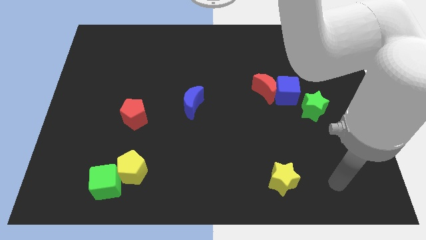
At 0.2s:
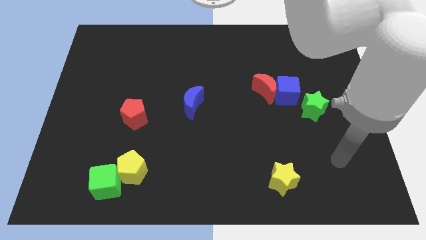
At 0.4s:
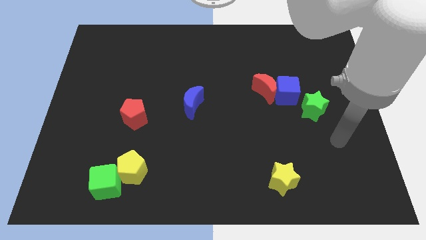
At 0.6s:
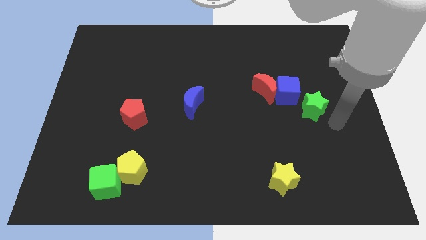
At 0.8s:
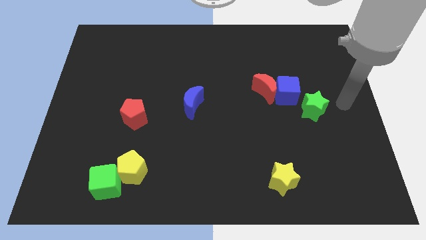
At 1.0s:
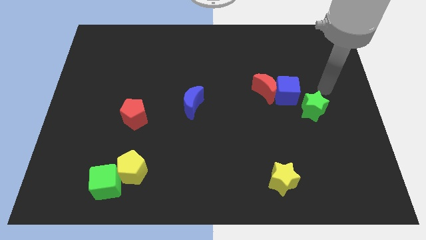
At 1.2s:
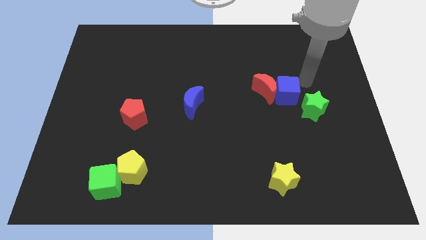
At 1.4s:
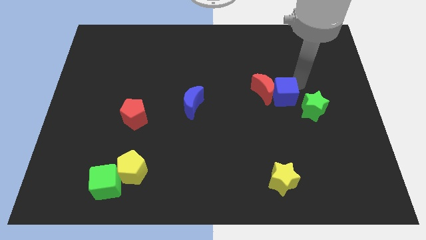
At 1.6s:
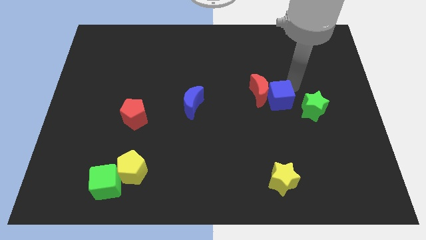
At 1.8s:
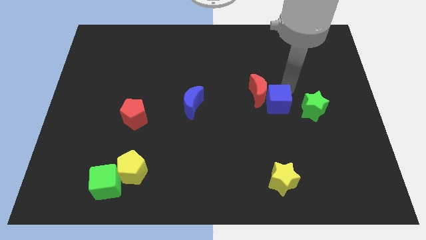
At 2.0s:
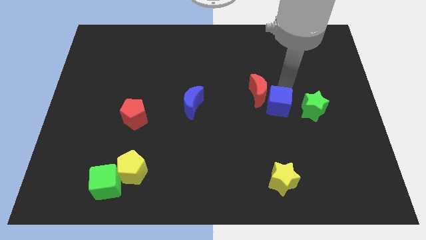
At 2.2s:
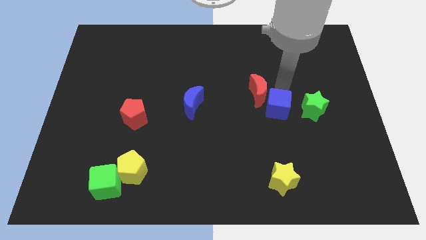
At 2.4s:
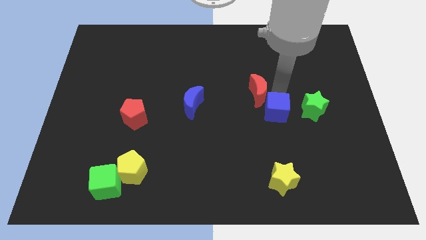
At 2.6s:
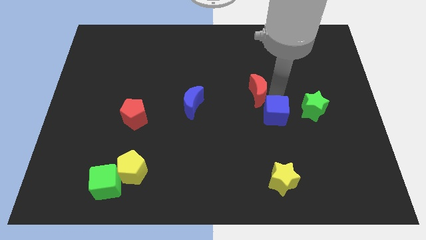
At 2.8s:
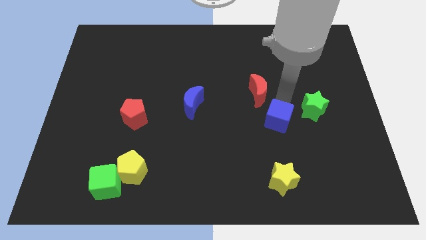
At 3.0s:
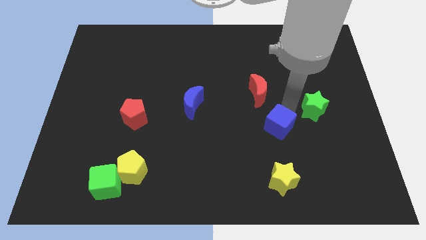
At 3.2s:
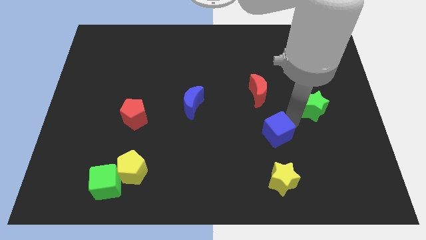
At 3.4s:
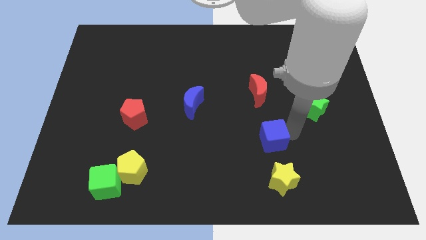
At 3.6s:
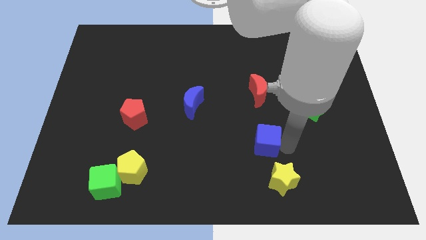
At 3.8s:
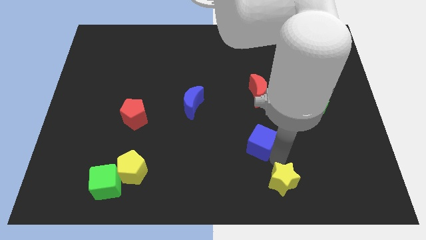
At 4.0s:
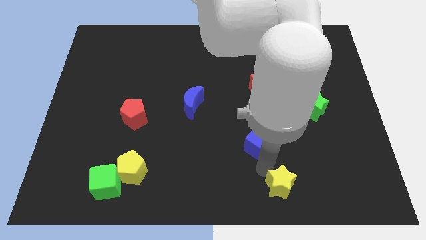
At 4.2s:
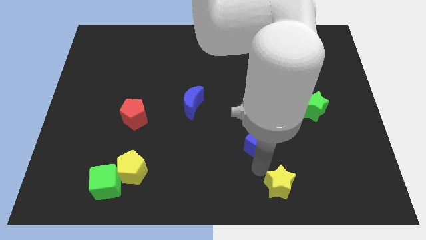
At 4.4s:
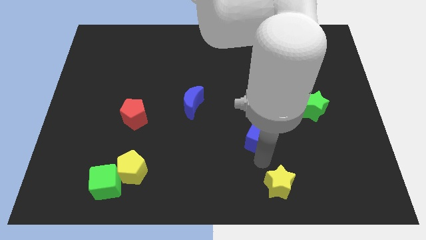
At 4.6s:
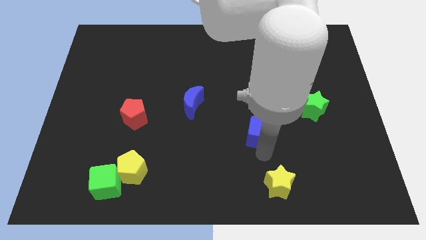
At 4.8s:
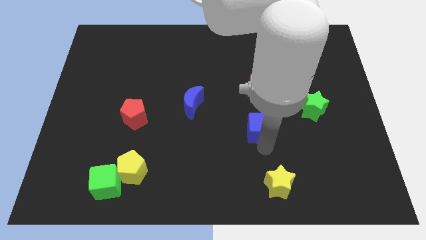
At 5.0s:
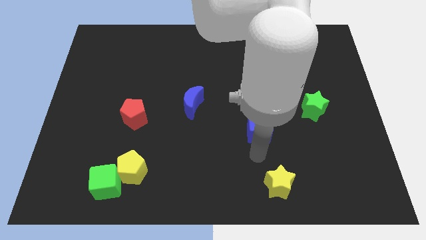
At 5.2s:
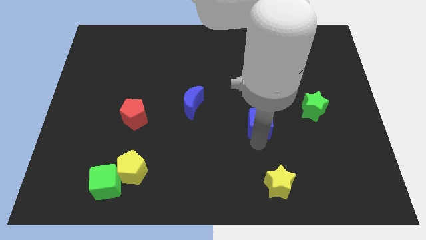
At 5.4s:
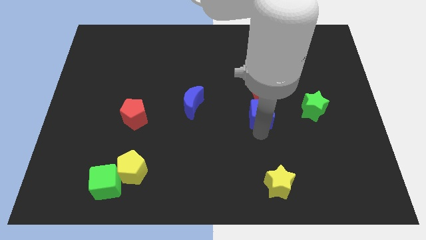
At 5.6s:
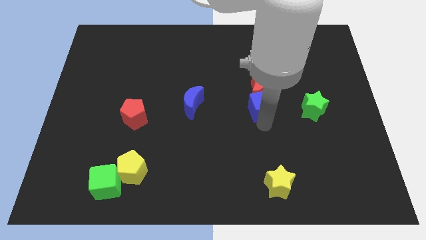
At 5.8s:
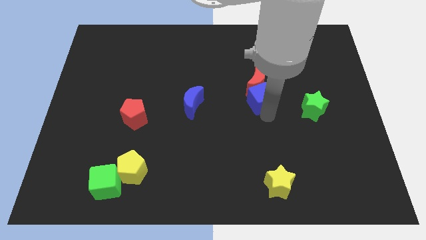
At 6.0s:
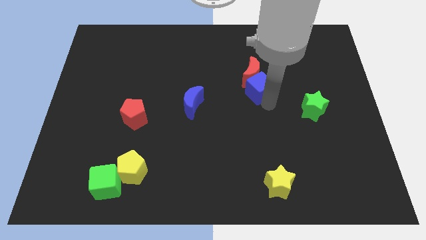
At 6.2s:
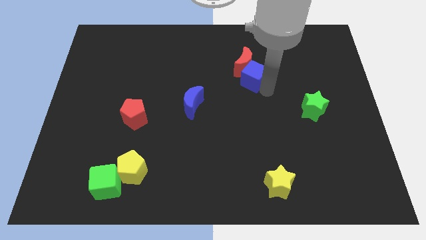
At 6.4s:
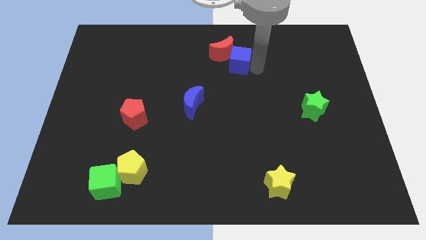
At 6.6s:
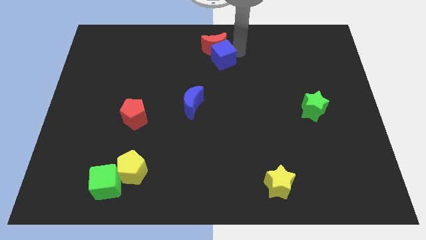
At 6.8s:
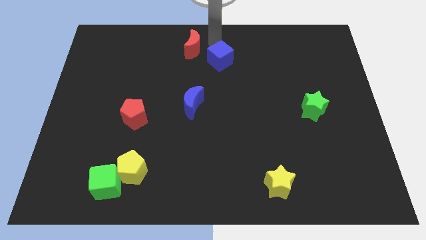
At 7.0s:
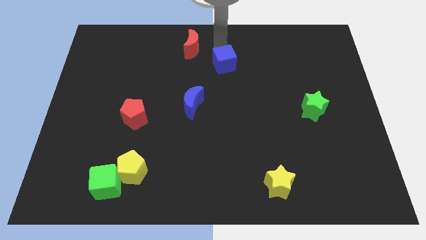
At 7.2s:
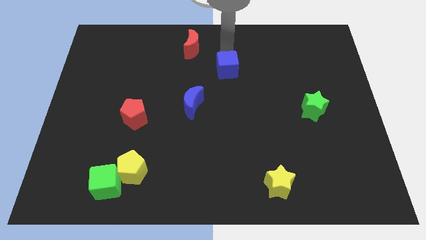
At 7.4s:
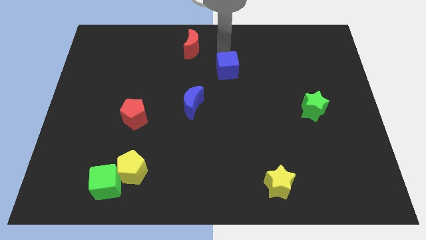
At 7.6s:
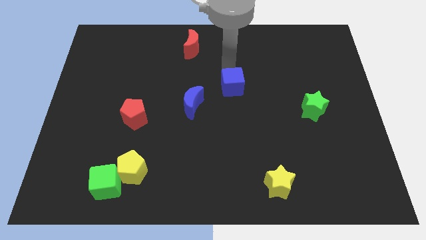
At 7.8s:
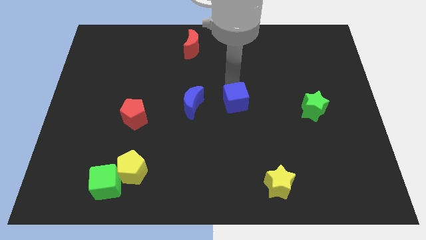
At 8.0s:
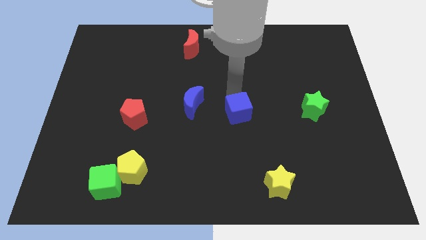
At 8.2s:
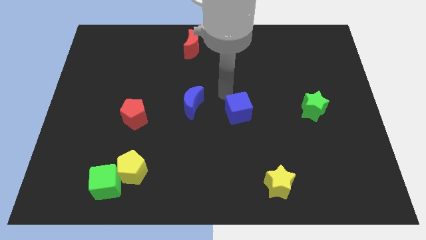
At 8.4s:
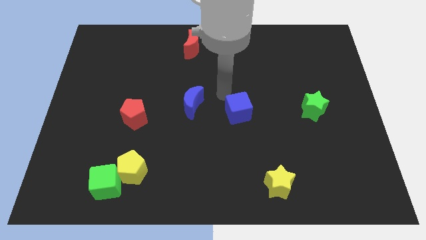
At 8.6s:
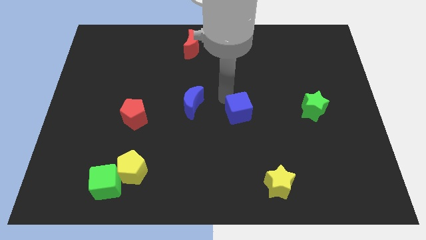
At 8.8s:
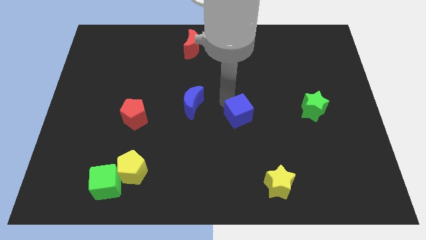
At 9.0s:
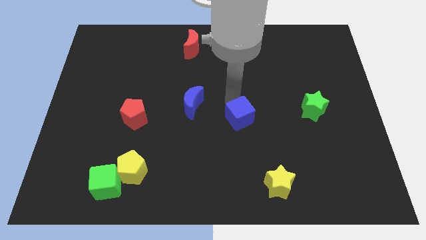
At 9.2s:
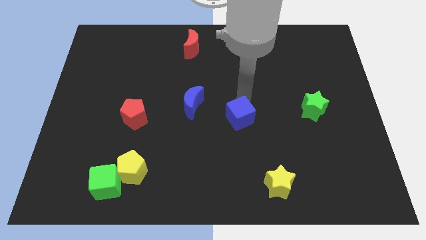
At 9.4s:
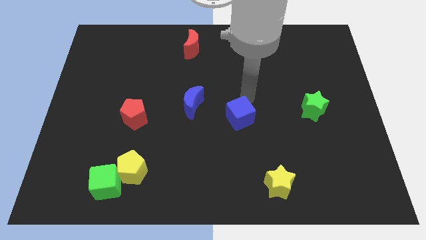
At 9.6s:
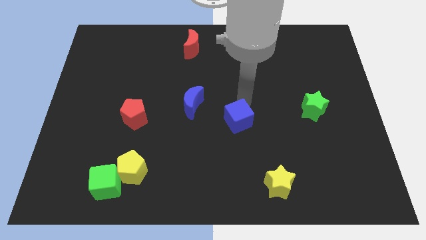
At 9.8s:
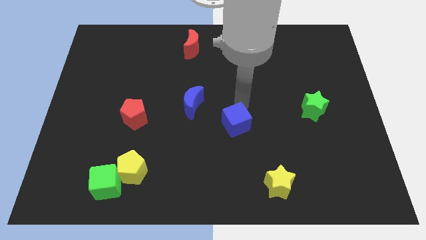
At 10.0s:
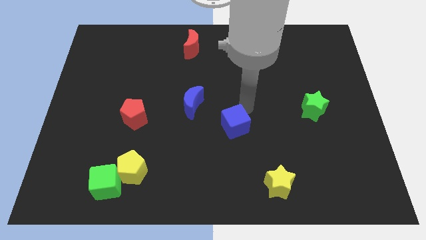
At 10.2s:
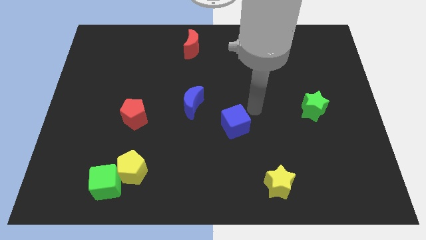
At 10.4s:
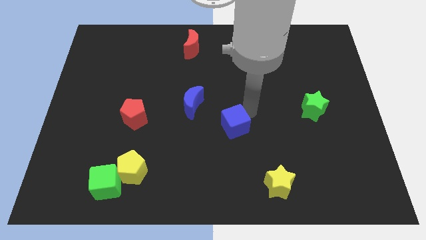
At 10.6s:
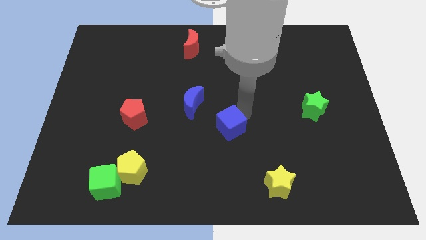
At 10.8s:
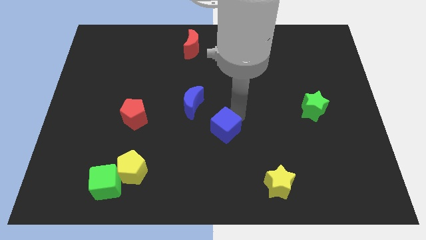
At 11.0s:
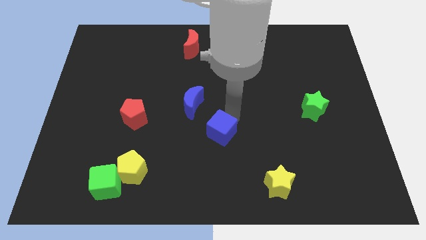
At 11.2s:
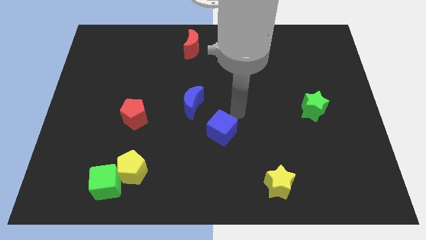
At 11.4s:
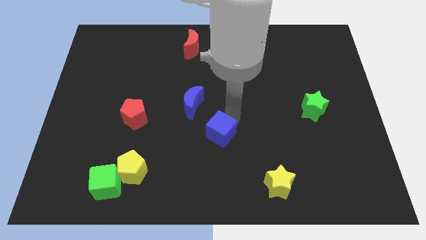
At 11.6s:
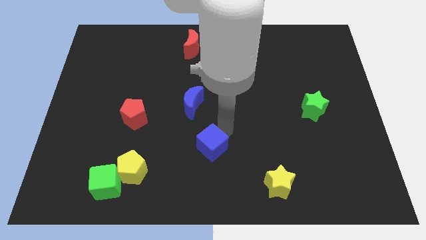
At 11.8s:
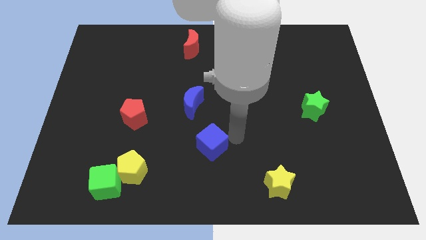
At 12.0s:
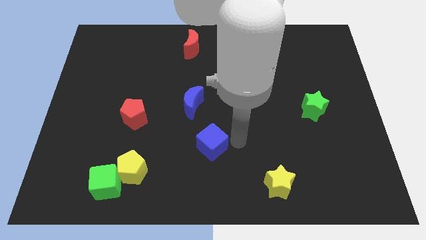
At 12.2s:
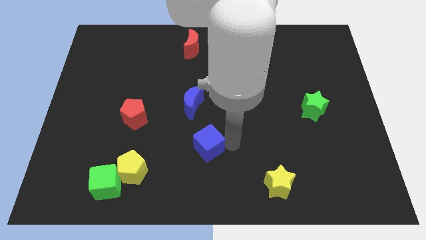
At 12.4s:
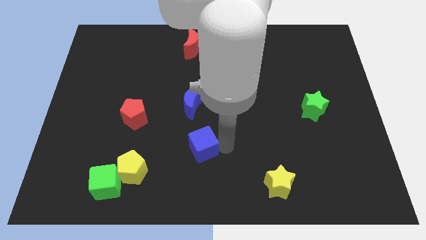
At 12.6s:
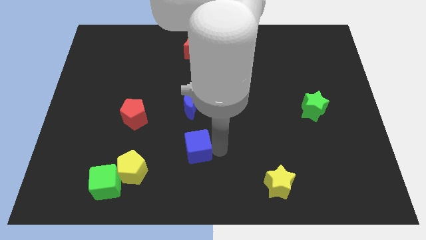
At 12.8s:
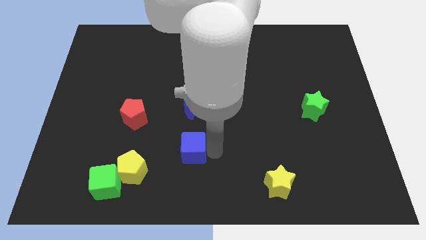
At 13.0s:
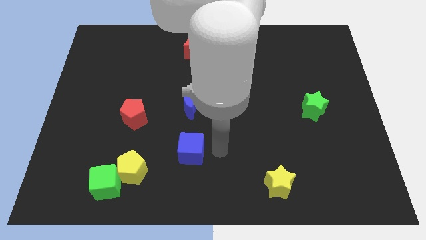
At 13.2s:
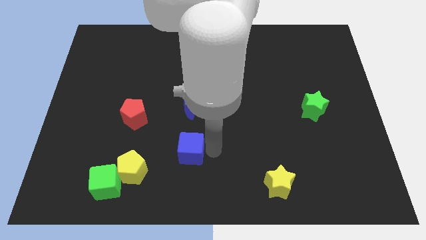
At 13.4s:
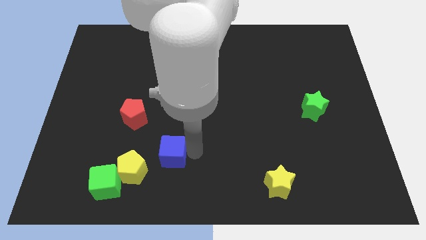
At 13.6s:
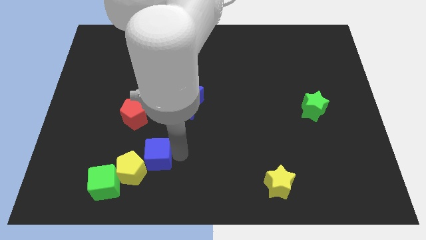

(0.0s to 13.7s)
move the blue cube to the top right of the green cube

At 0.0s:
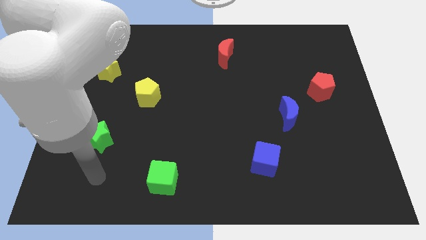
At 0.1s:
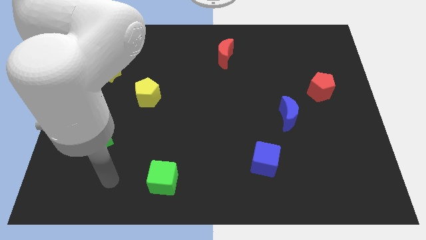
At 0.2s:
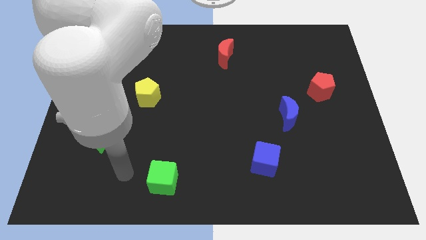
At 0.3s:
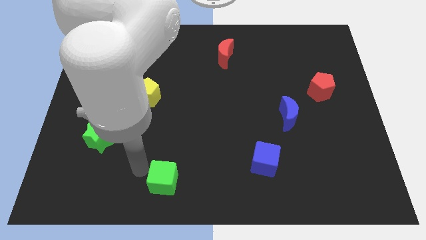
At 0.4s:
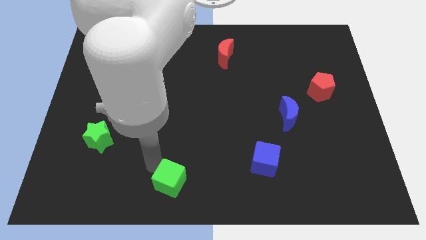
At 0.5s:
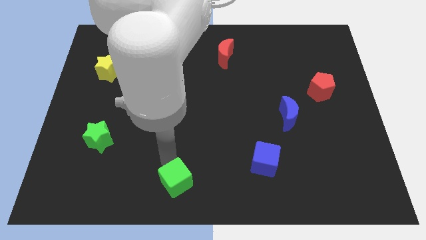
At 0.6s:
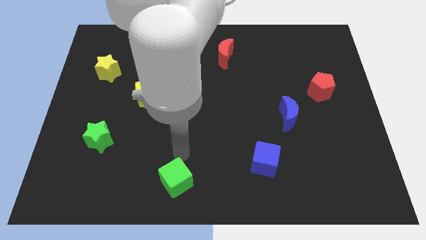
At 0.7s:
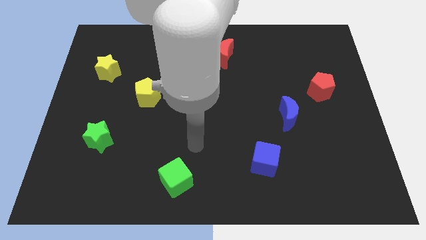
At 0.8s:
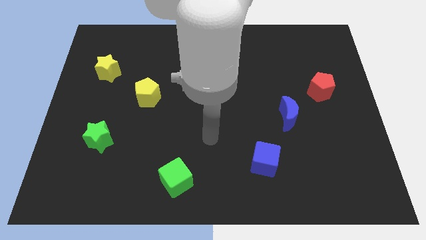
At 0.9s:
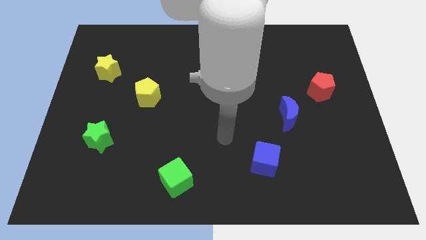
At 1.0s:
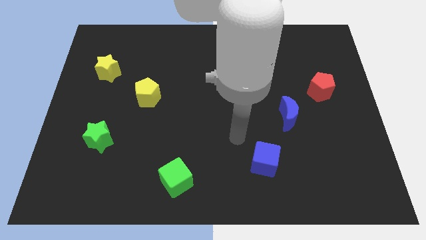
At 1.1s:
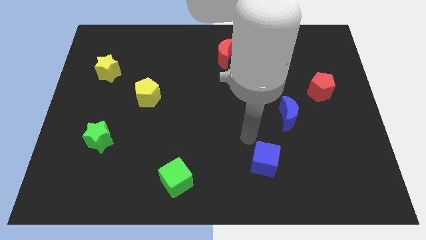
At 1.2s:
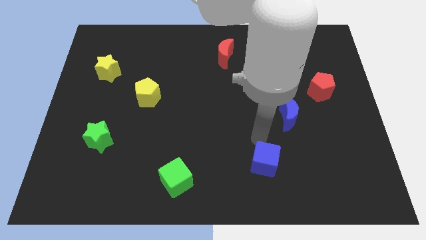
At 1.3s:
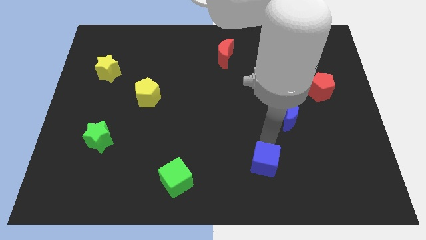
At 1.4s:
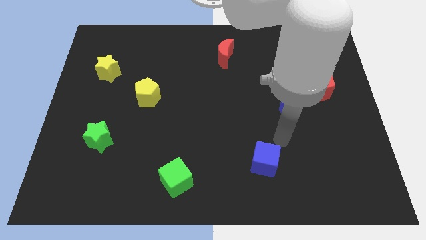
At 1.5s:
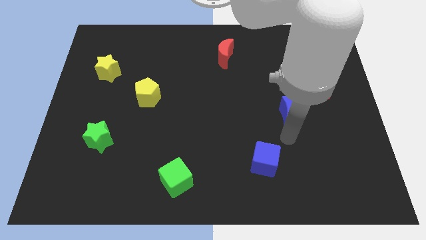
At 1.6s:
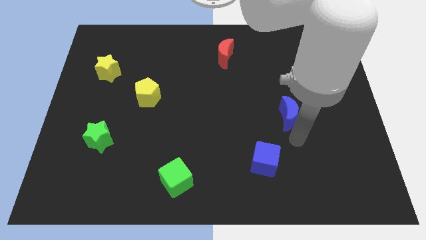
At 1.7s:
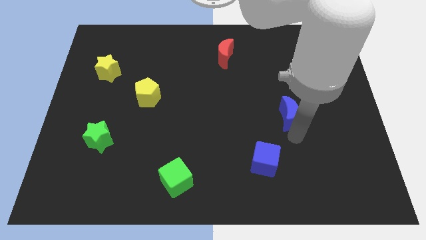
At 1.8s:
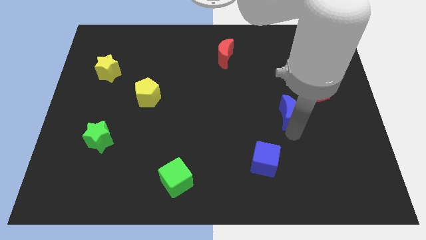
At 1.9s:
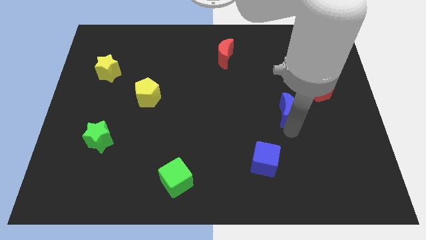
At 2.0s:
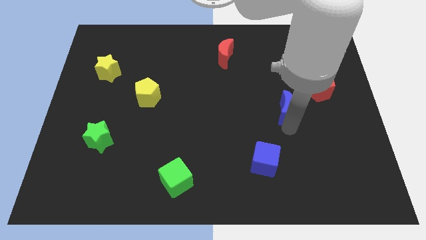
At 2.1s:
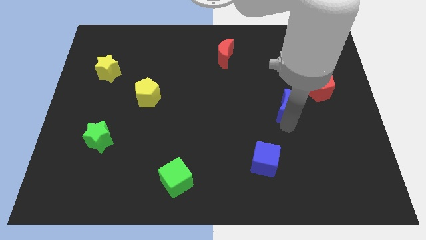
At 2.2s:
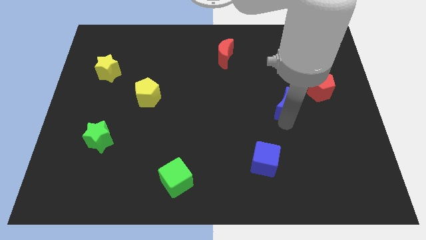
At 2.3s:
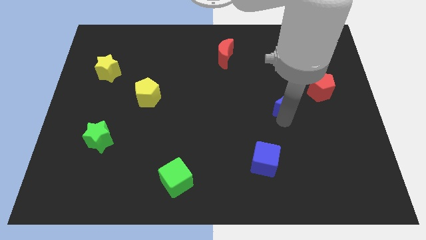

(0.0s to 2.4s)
put the blue moon just left of the red pentagon
